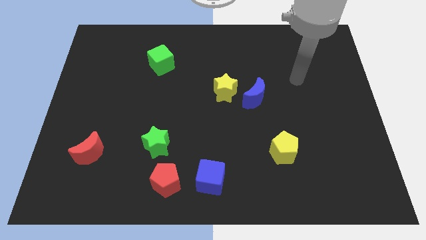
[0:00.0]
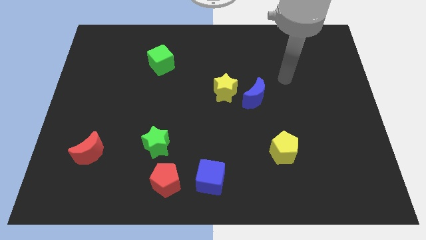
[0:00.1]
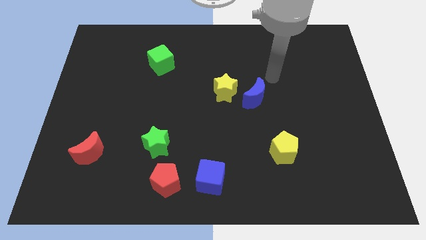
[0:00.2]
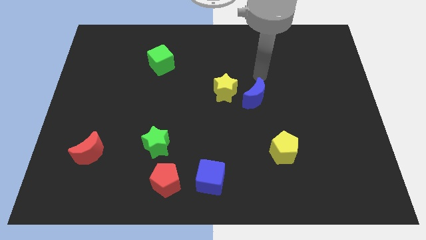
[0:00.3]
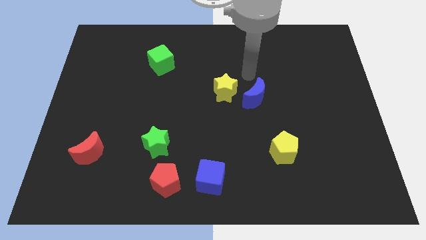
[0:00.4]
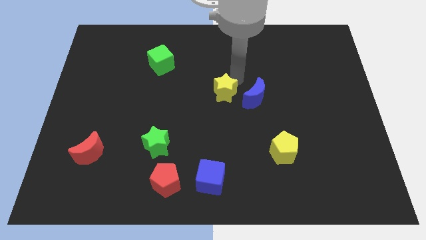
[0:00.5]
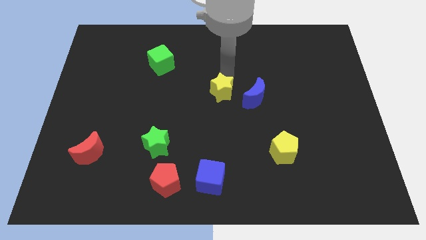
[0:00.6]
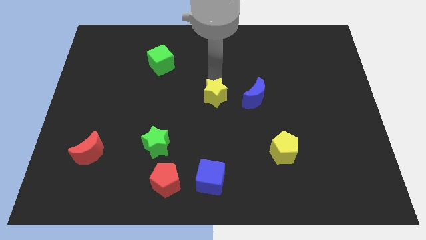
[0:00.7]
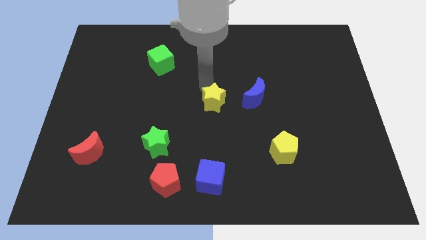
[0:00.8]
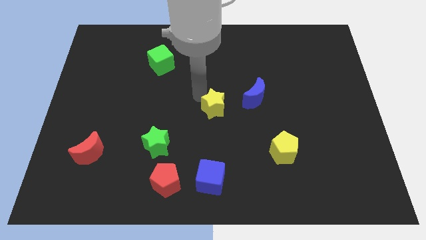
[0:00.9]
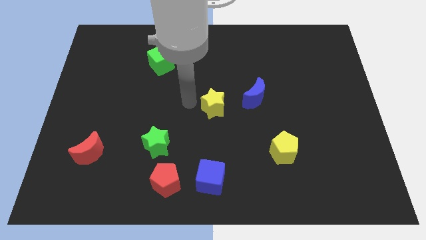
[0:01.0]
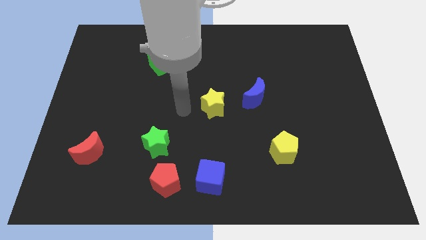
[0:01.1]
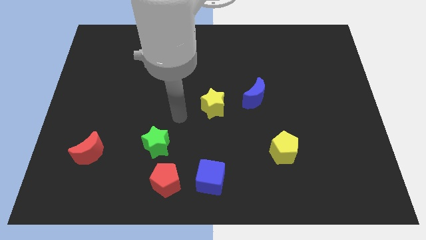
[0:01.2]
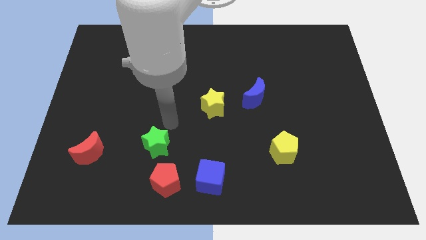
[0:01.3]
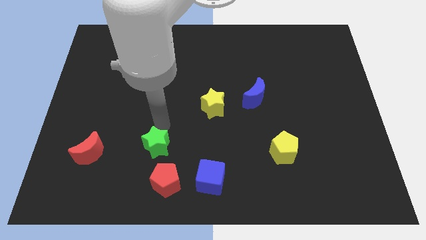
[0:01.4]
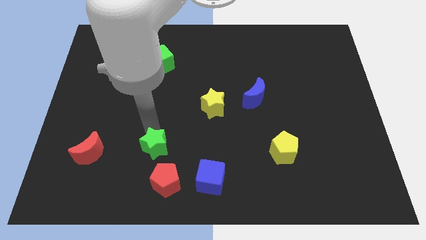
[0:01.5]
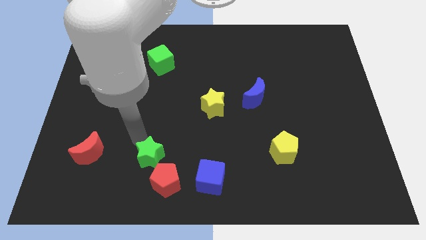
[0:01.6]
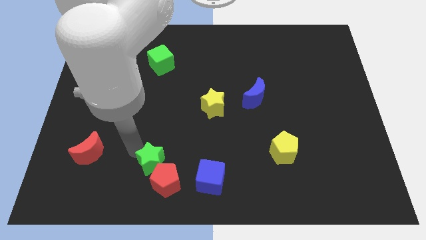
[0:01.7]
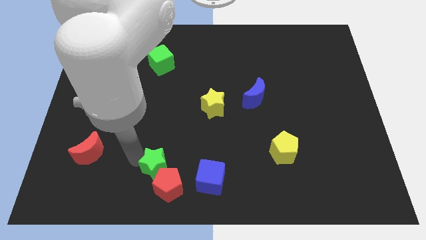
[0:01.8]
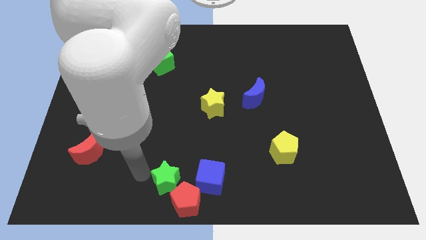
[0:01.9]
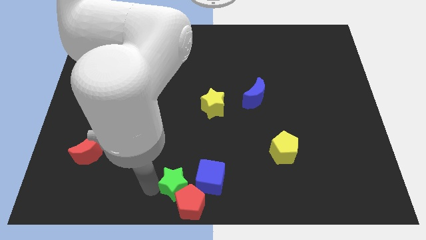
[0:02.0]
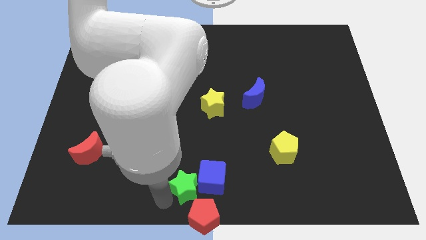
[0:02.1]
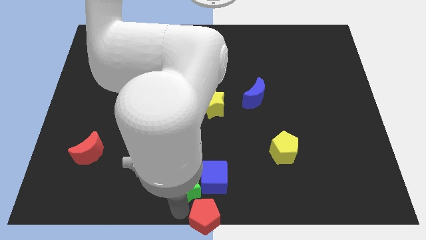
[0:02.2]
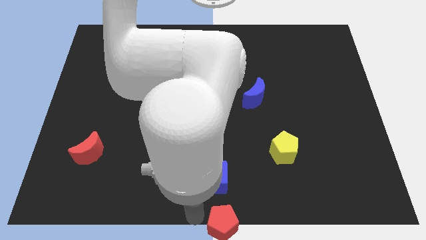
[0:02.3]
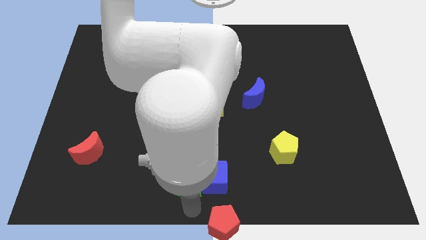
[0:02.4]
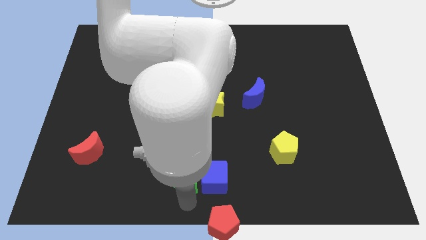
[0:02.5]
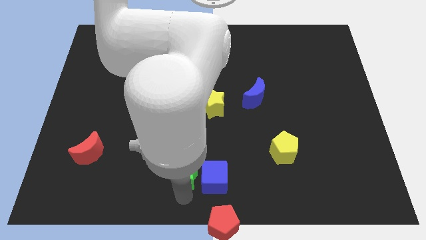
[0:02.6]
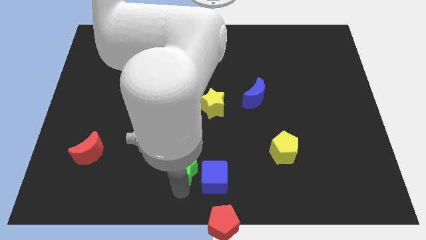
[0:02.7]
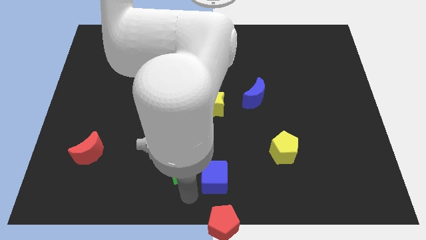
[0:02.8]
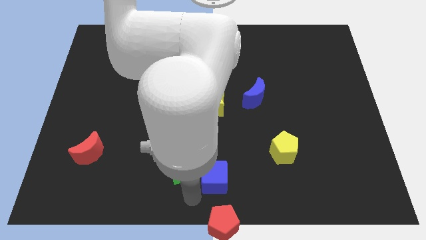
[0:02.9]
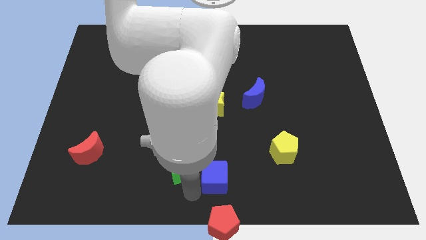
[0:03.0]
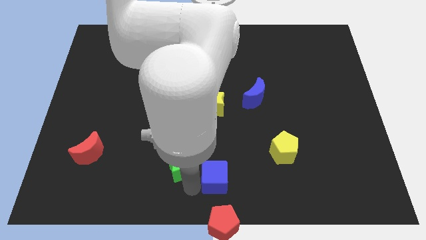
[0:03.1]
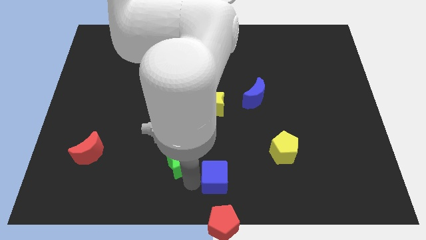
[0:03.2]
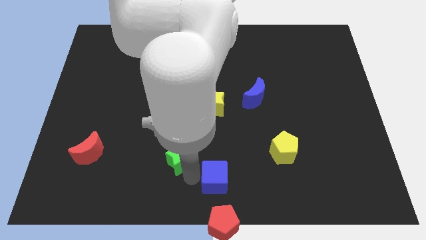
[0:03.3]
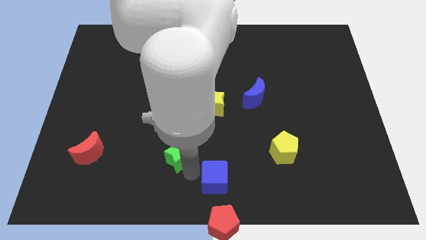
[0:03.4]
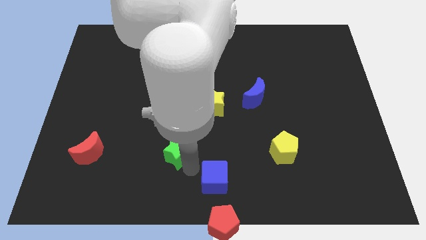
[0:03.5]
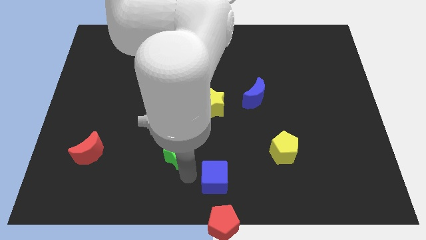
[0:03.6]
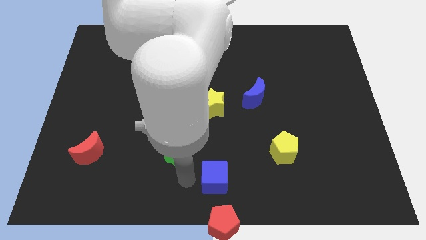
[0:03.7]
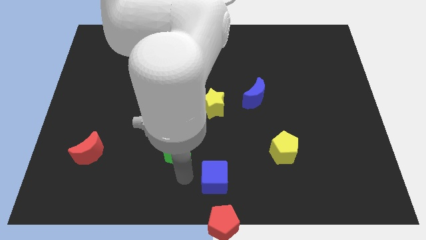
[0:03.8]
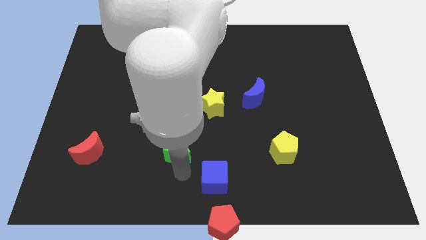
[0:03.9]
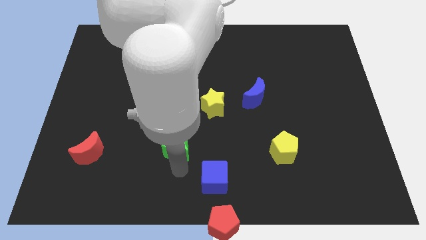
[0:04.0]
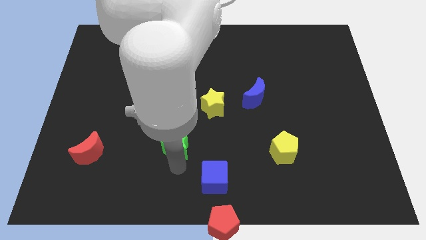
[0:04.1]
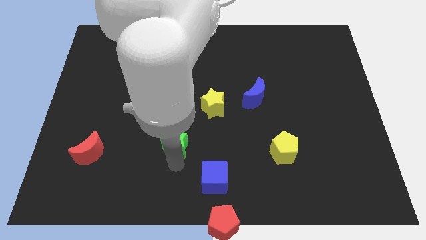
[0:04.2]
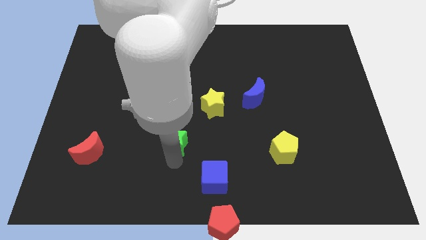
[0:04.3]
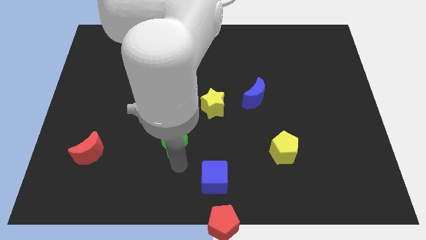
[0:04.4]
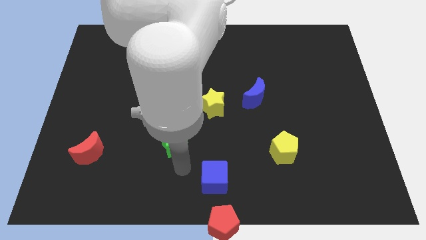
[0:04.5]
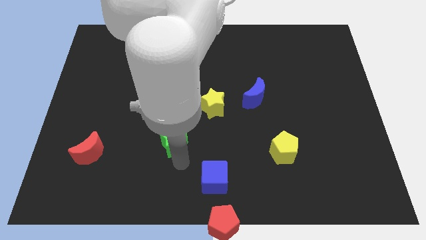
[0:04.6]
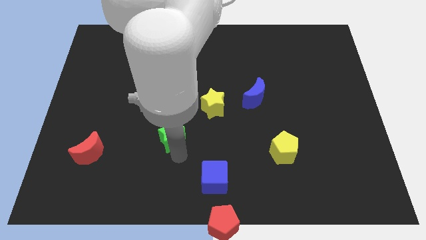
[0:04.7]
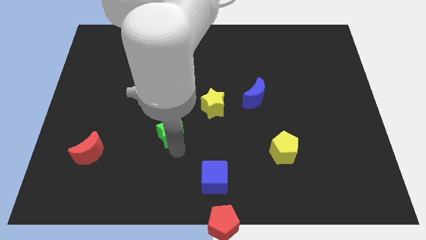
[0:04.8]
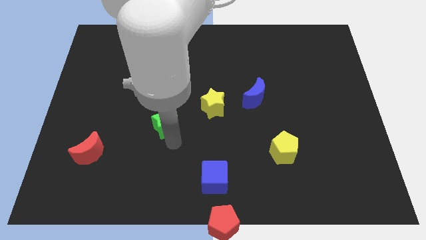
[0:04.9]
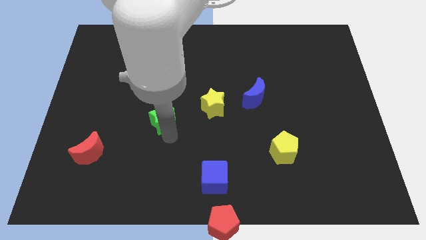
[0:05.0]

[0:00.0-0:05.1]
move the green star just left of the yellow star

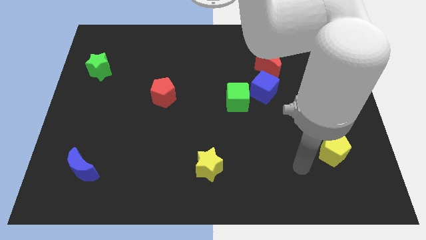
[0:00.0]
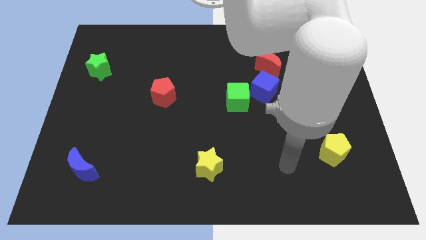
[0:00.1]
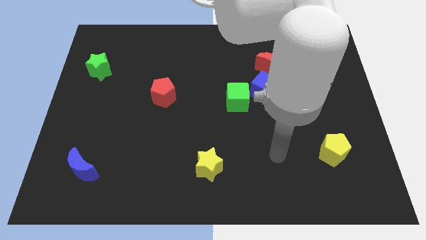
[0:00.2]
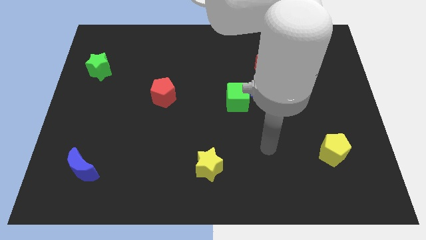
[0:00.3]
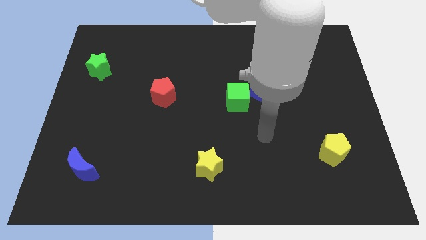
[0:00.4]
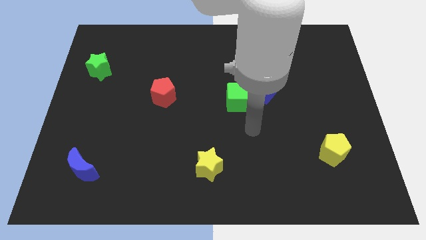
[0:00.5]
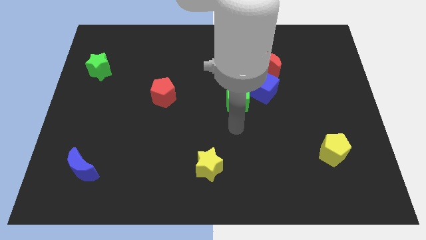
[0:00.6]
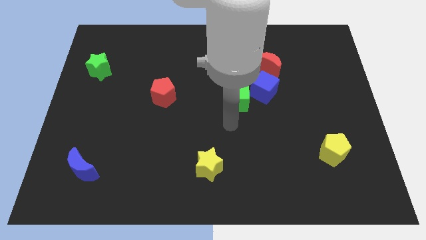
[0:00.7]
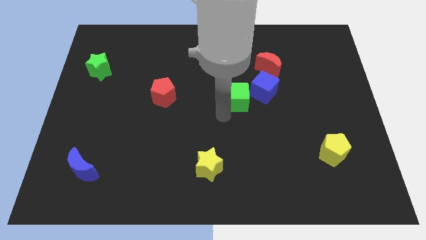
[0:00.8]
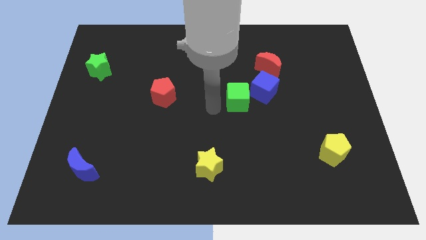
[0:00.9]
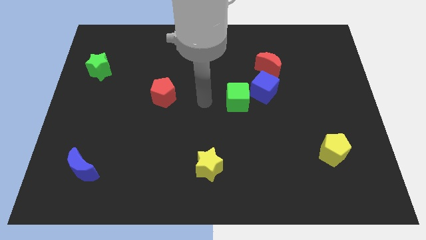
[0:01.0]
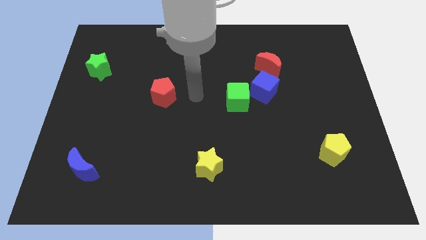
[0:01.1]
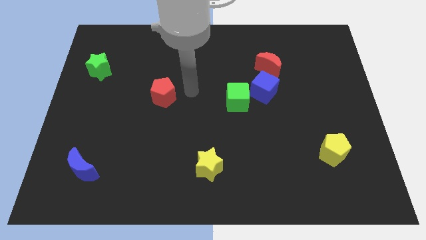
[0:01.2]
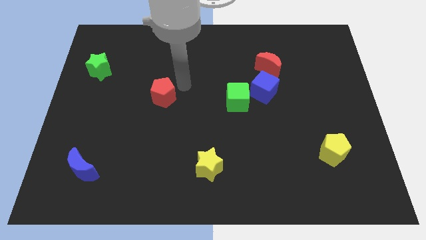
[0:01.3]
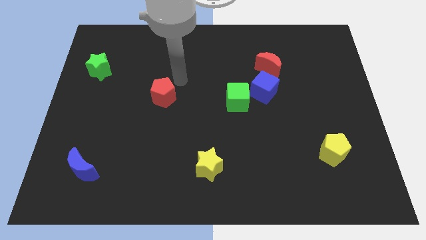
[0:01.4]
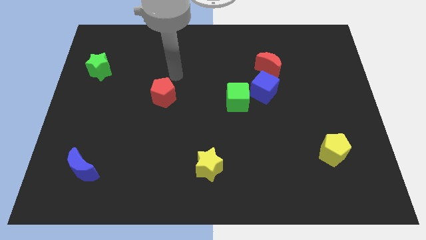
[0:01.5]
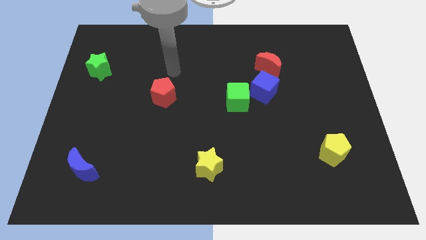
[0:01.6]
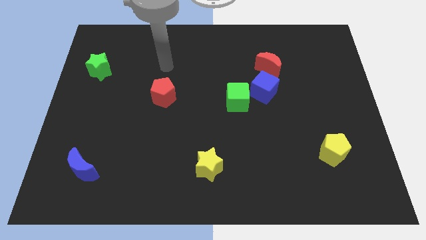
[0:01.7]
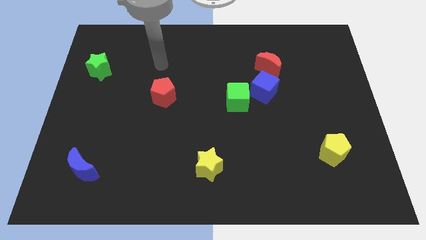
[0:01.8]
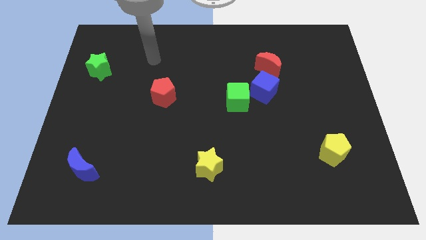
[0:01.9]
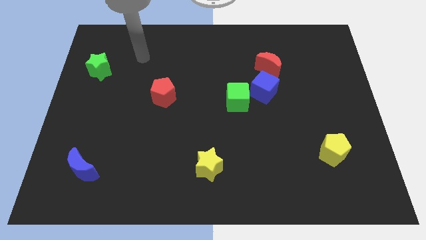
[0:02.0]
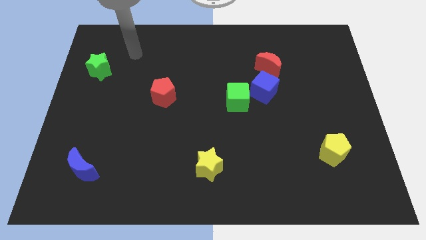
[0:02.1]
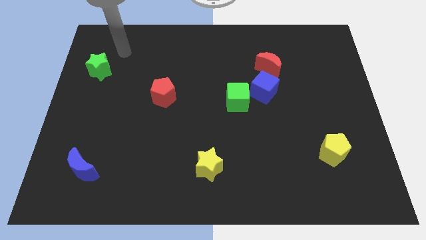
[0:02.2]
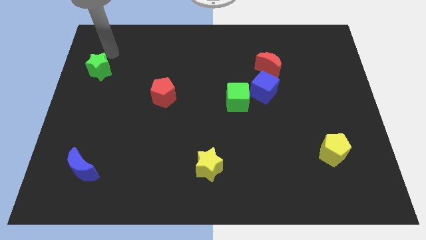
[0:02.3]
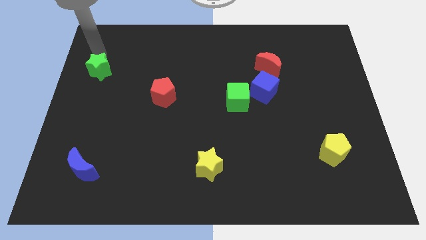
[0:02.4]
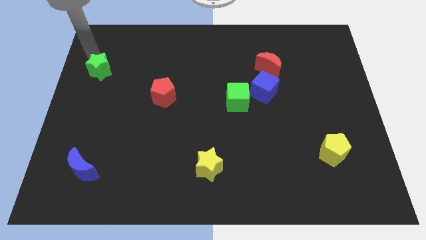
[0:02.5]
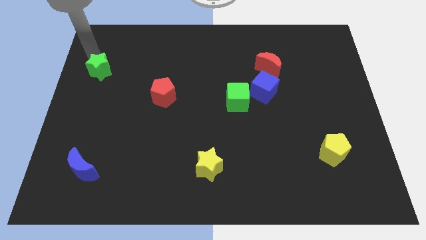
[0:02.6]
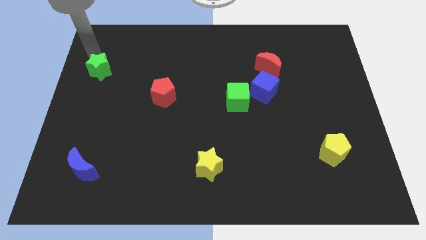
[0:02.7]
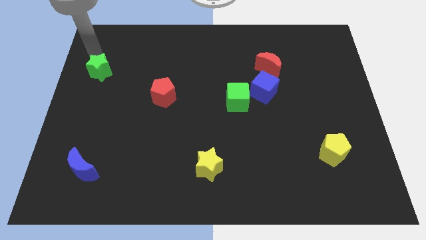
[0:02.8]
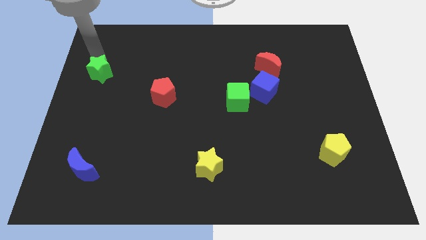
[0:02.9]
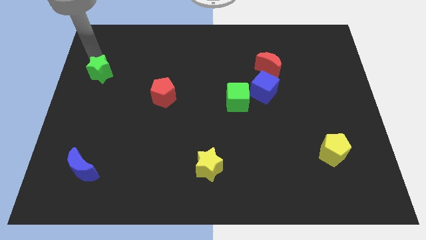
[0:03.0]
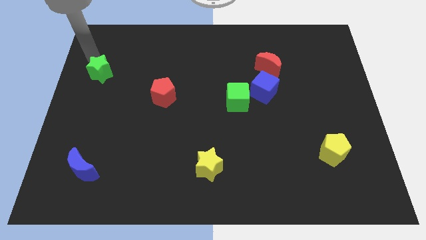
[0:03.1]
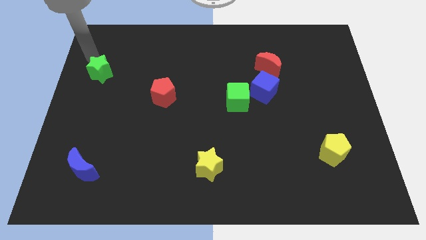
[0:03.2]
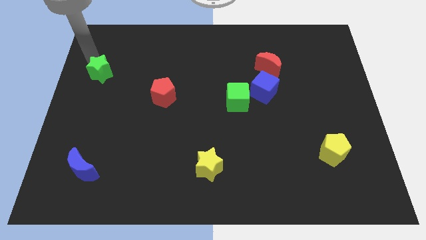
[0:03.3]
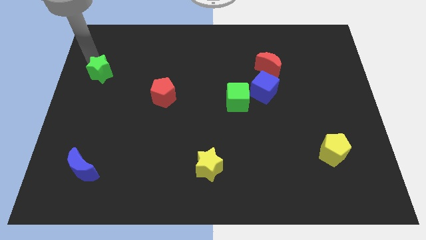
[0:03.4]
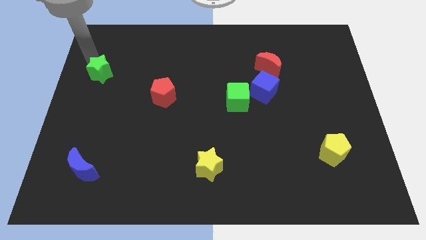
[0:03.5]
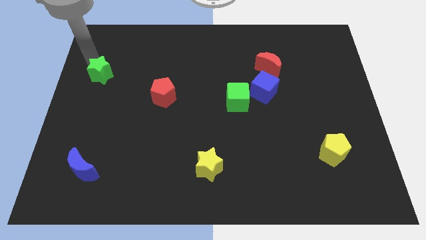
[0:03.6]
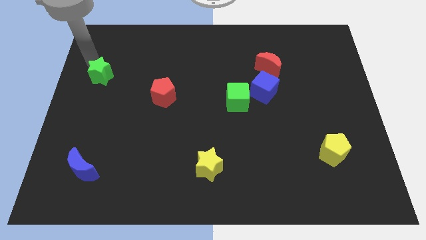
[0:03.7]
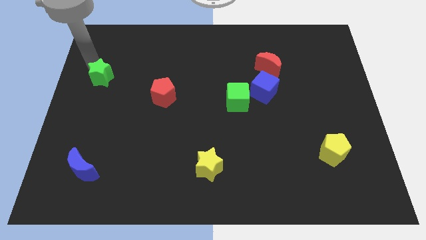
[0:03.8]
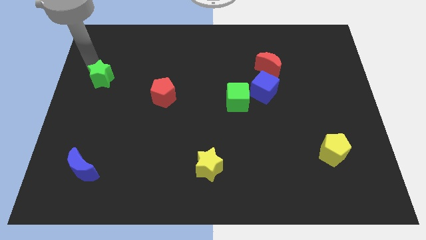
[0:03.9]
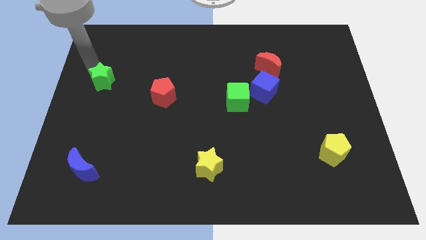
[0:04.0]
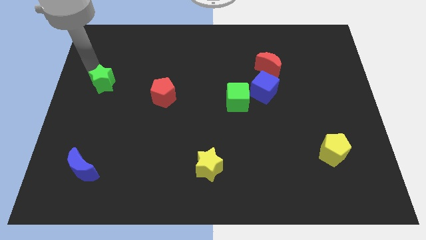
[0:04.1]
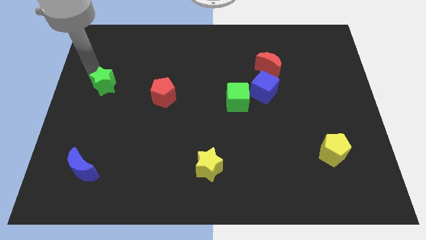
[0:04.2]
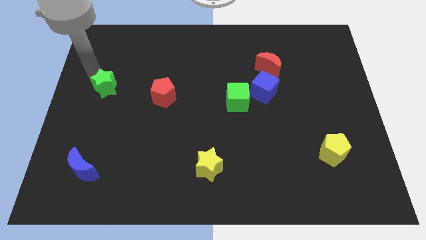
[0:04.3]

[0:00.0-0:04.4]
put the green star to the left of the red pentagon
